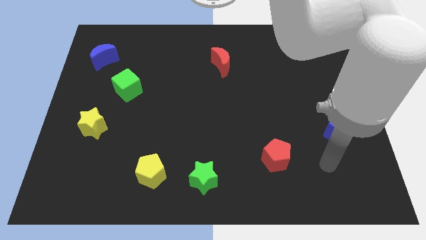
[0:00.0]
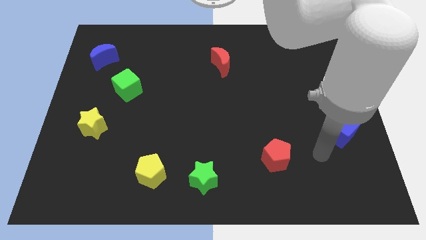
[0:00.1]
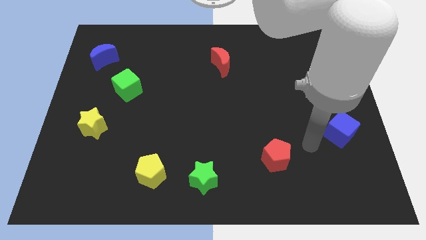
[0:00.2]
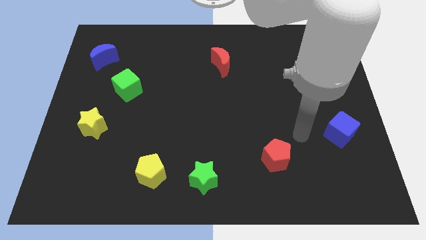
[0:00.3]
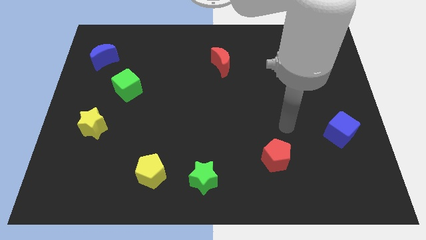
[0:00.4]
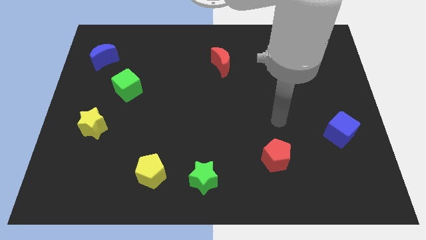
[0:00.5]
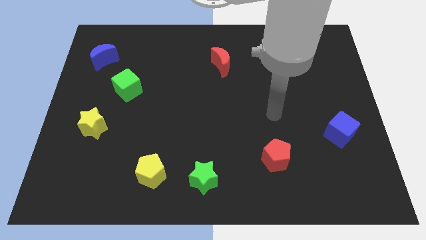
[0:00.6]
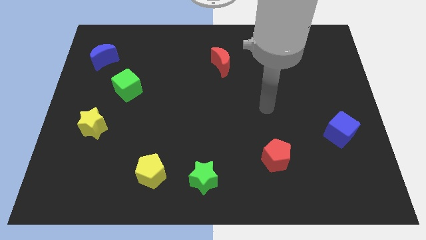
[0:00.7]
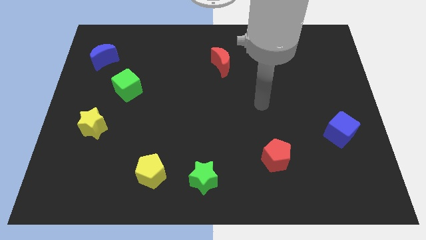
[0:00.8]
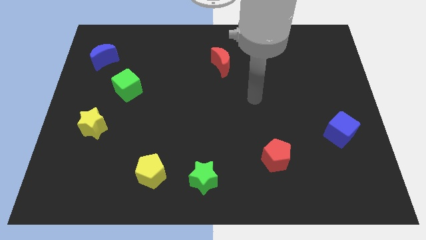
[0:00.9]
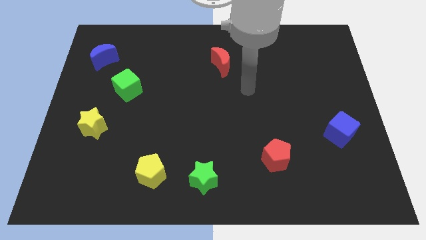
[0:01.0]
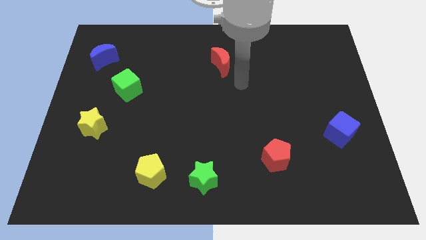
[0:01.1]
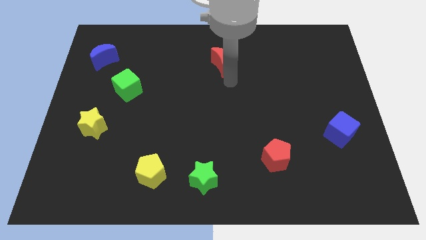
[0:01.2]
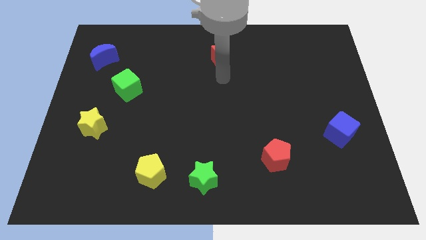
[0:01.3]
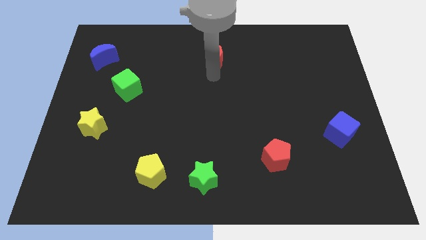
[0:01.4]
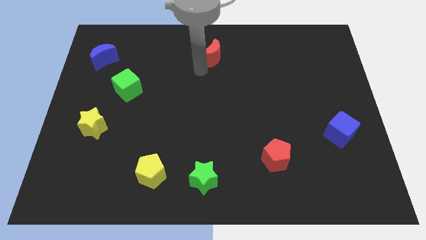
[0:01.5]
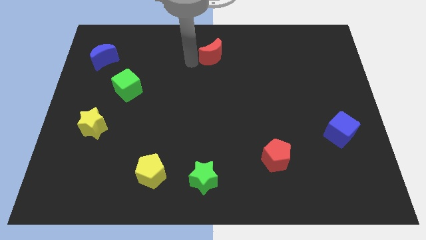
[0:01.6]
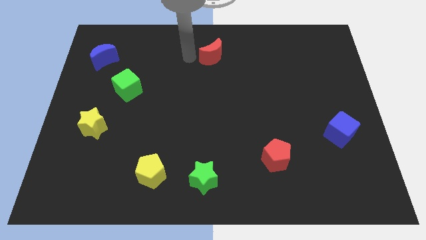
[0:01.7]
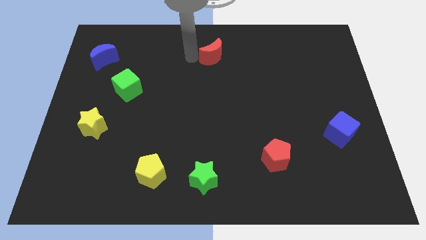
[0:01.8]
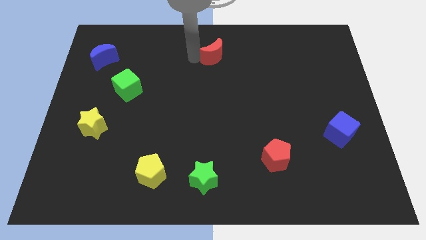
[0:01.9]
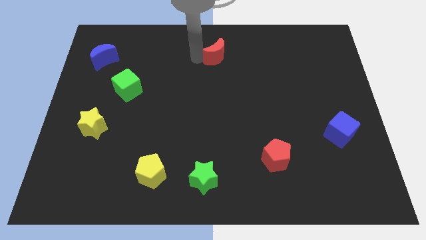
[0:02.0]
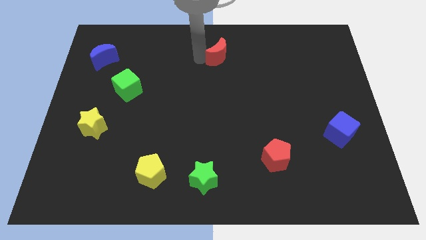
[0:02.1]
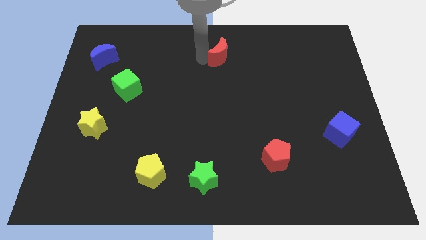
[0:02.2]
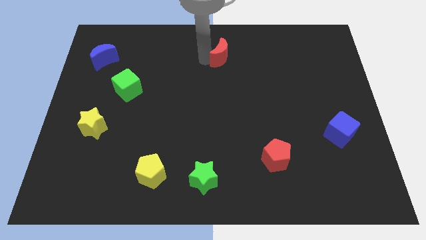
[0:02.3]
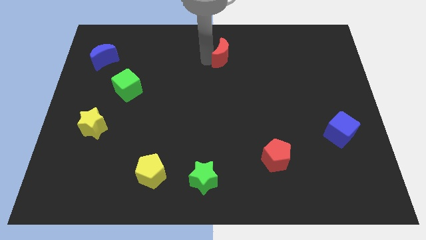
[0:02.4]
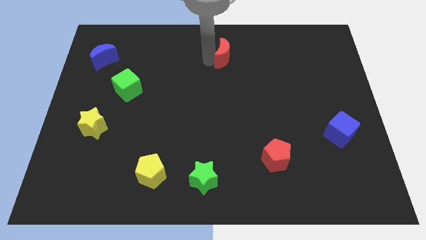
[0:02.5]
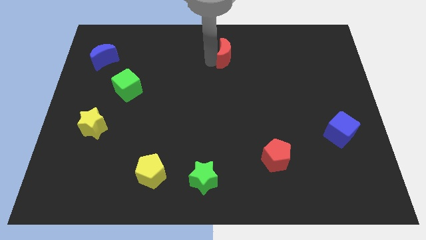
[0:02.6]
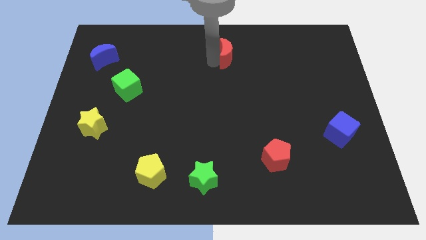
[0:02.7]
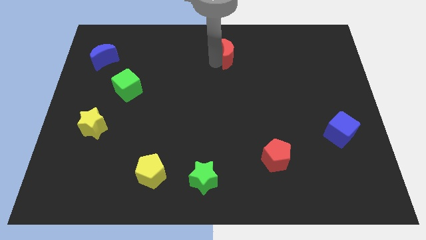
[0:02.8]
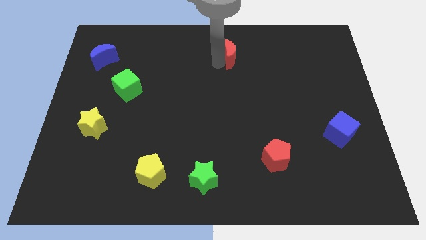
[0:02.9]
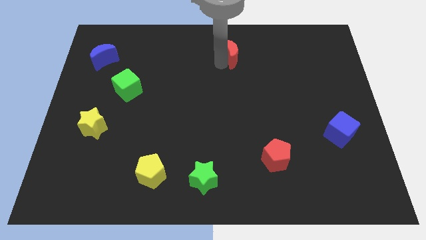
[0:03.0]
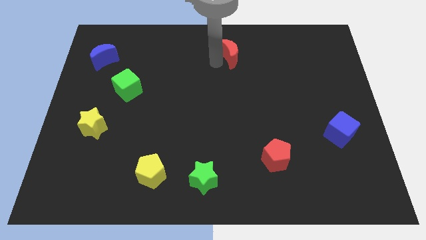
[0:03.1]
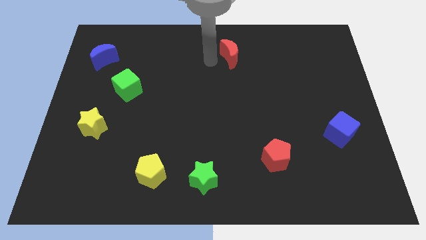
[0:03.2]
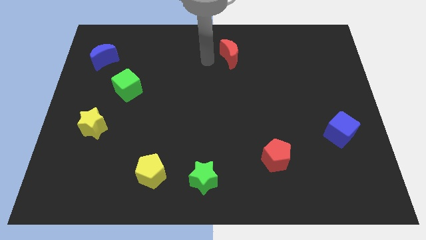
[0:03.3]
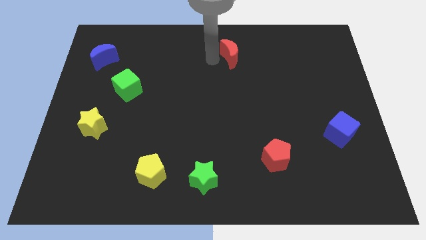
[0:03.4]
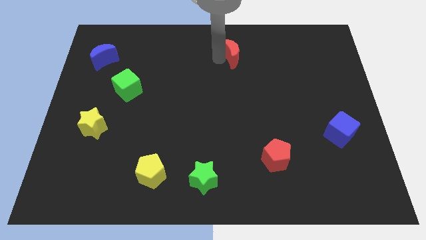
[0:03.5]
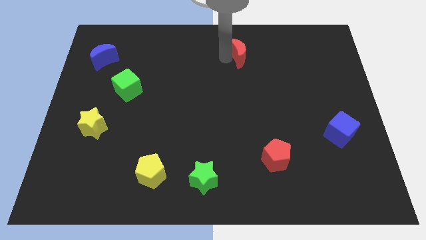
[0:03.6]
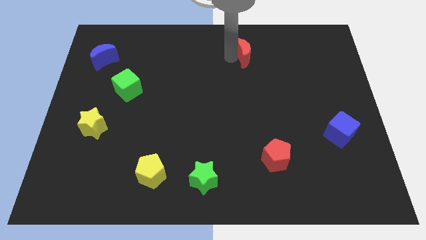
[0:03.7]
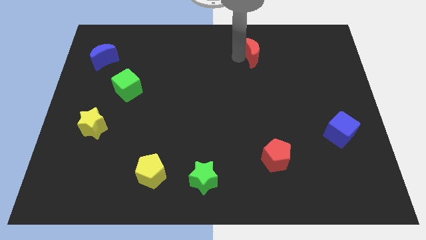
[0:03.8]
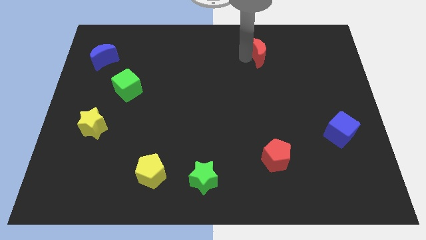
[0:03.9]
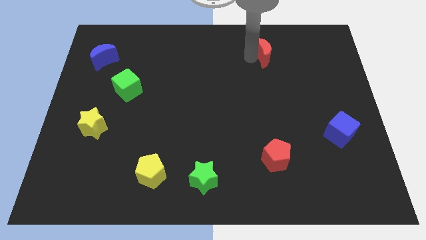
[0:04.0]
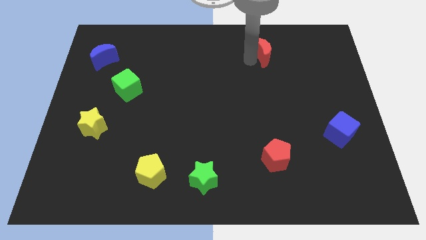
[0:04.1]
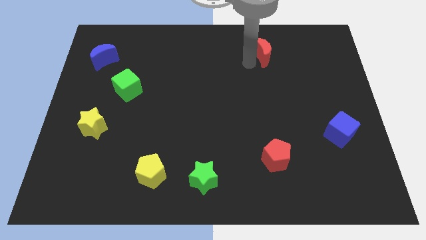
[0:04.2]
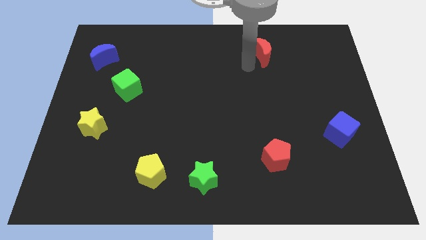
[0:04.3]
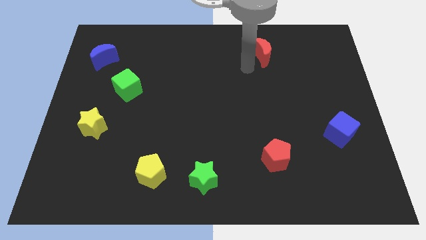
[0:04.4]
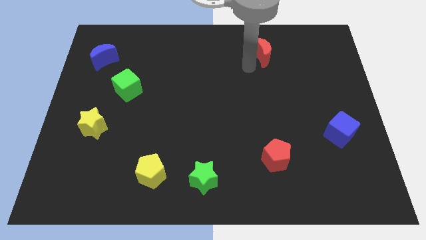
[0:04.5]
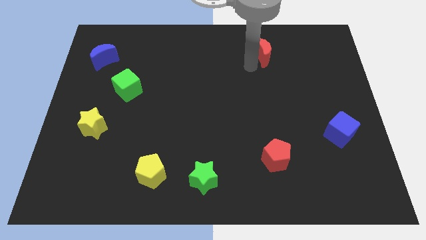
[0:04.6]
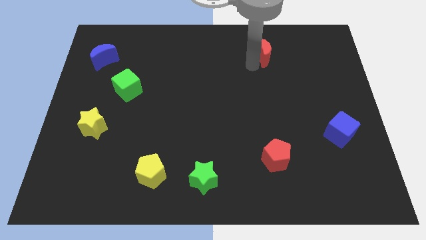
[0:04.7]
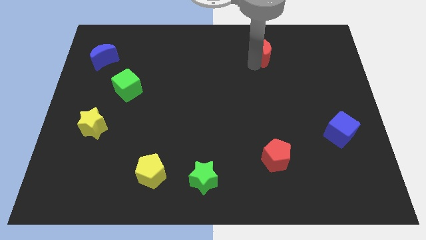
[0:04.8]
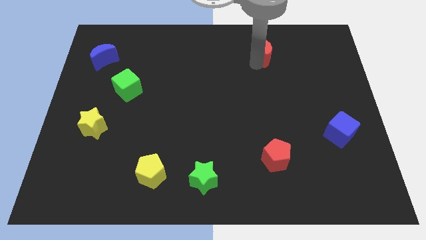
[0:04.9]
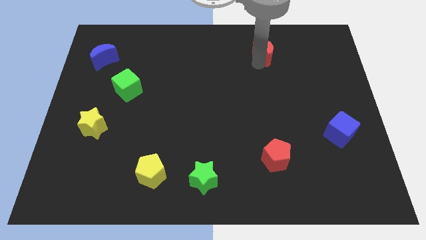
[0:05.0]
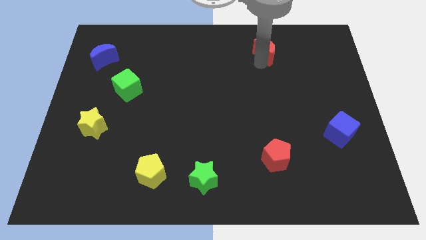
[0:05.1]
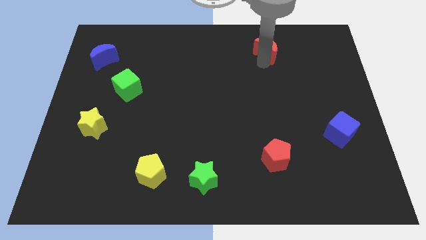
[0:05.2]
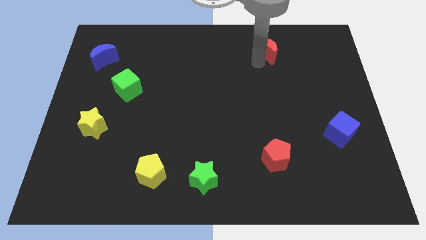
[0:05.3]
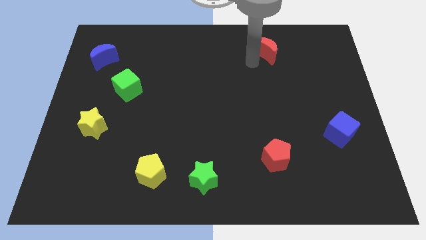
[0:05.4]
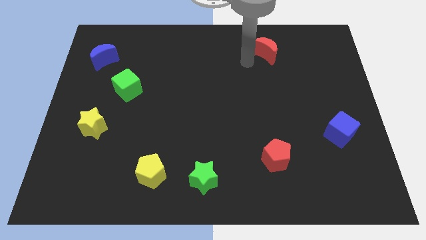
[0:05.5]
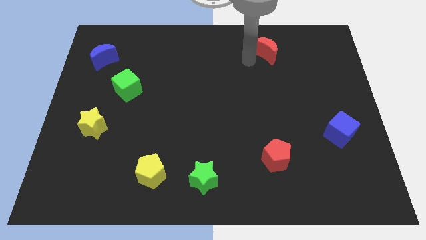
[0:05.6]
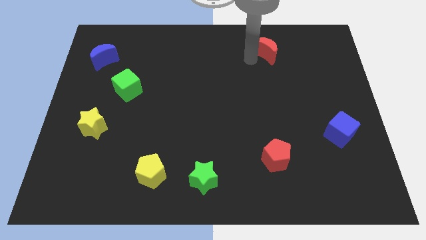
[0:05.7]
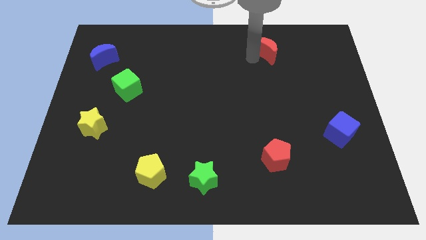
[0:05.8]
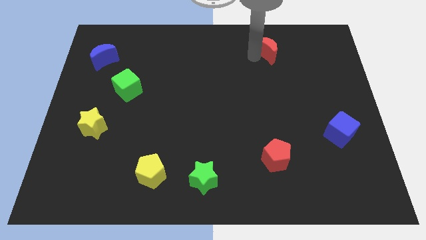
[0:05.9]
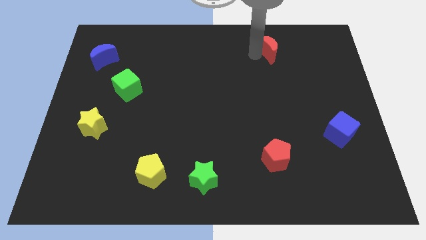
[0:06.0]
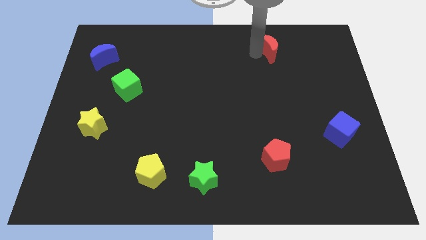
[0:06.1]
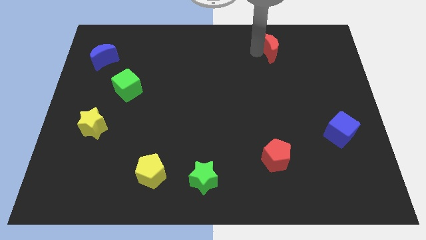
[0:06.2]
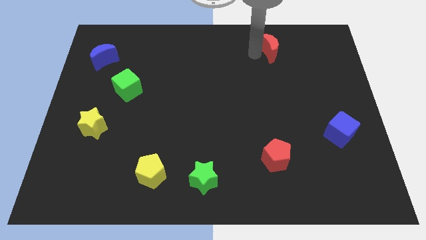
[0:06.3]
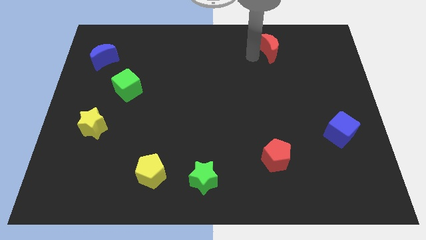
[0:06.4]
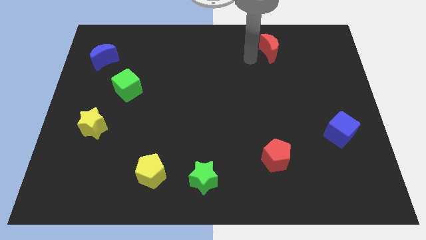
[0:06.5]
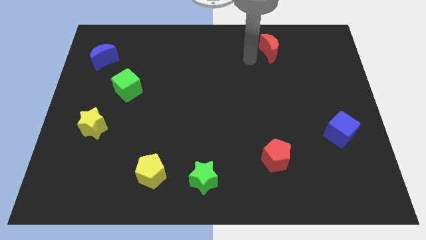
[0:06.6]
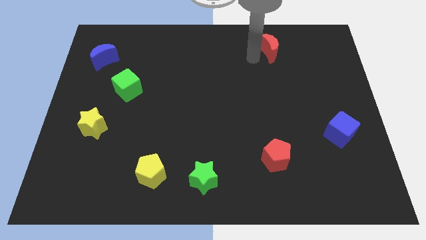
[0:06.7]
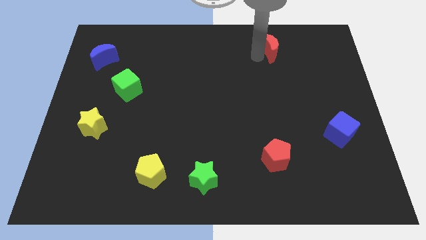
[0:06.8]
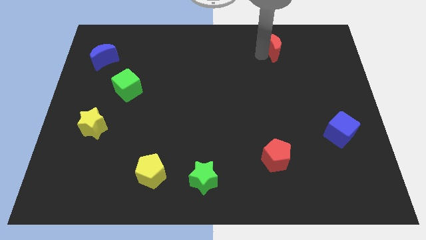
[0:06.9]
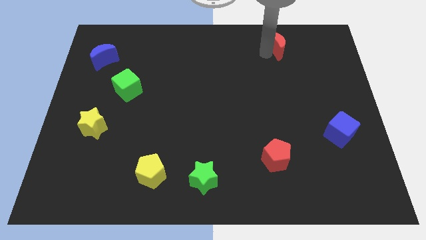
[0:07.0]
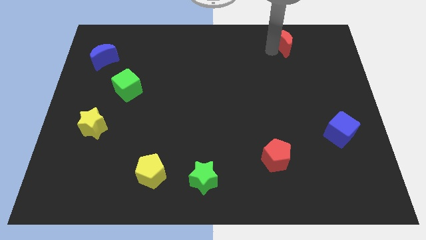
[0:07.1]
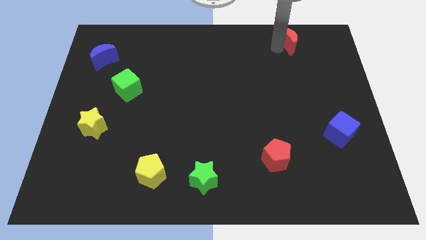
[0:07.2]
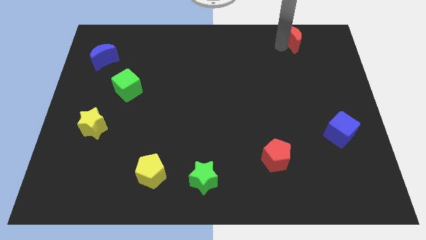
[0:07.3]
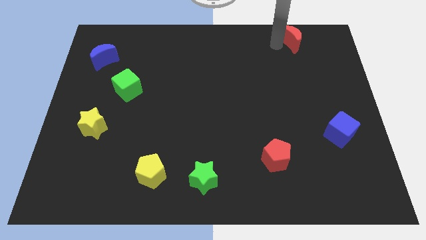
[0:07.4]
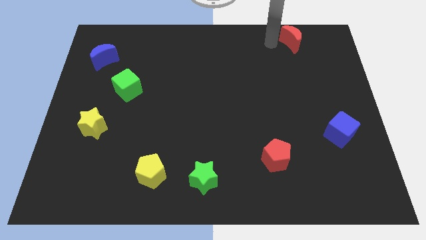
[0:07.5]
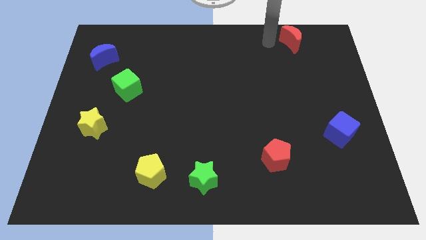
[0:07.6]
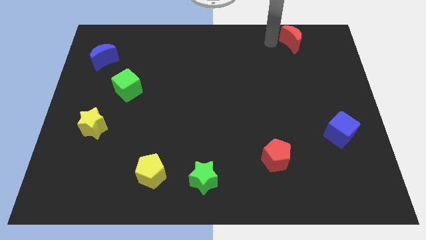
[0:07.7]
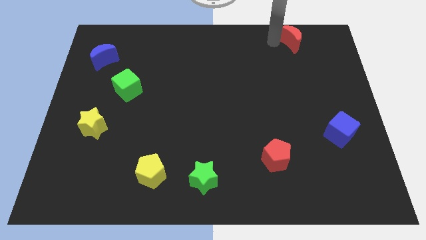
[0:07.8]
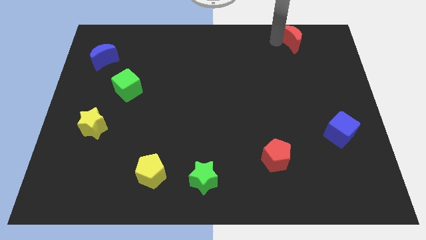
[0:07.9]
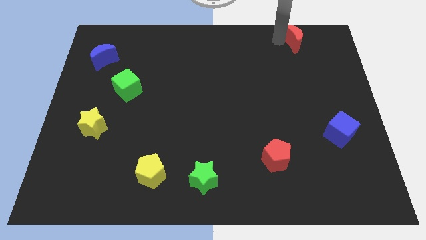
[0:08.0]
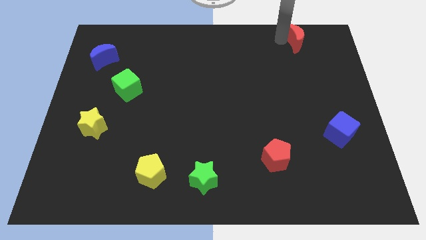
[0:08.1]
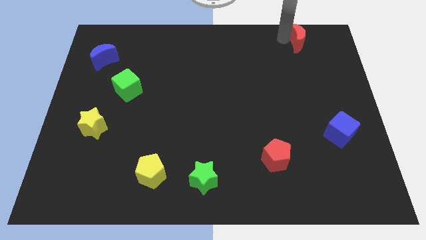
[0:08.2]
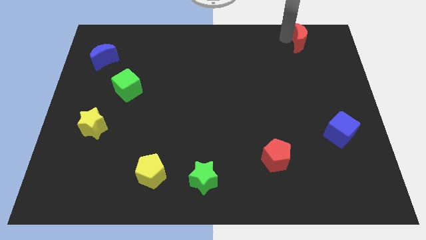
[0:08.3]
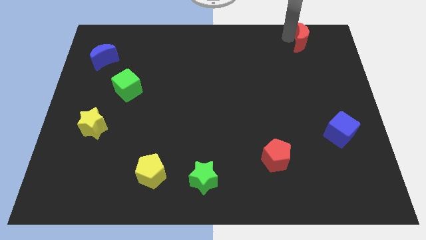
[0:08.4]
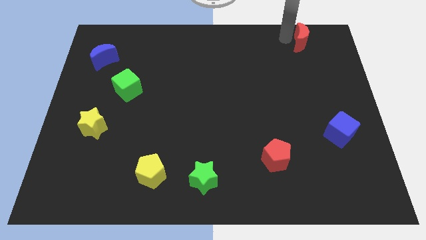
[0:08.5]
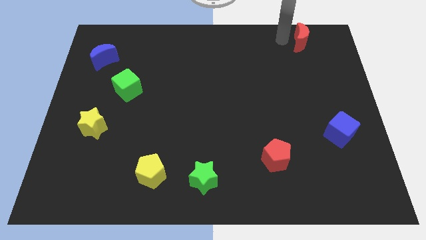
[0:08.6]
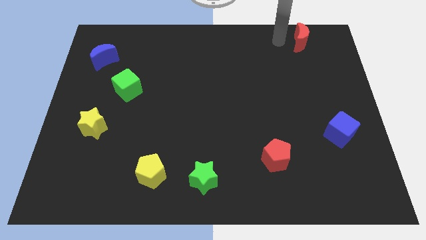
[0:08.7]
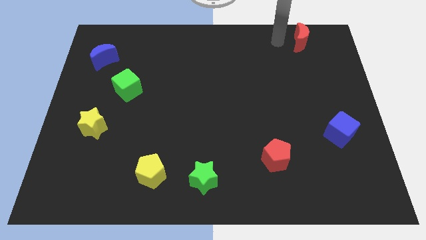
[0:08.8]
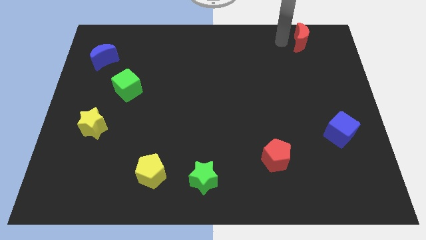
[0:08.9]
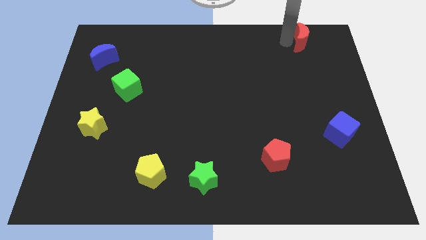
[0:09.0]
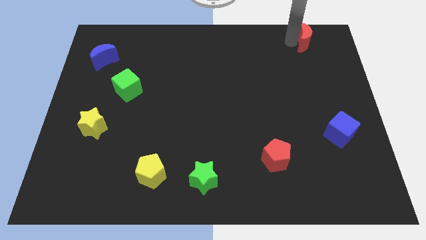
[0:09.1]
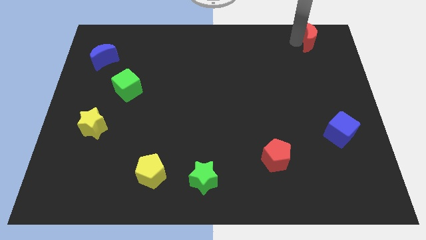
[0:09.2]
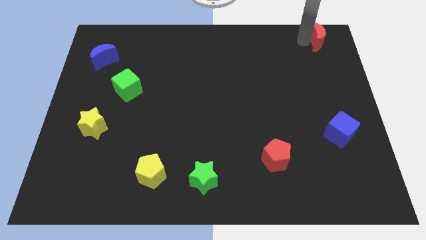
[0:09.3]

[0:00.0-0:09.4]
move the red moon to the top right
